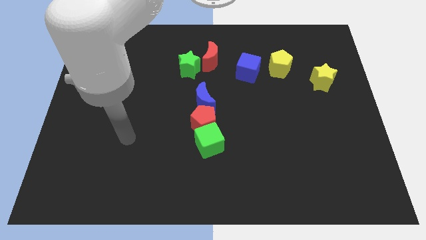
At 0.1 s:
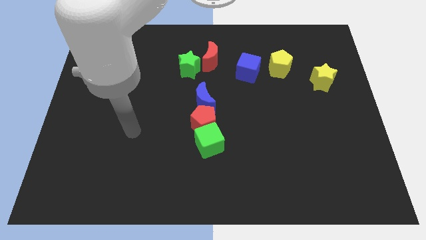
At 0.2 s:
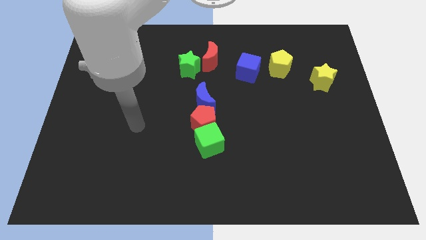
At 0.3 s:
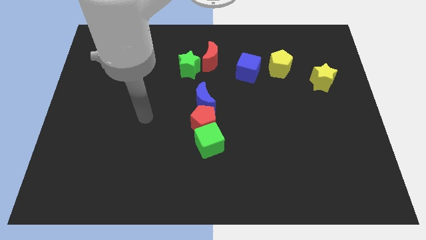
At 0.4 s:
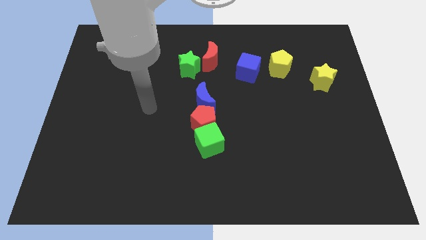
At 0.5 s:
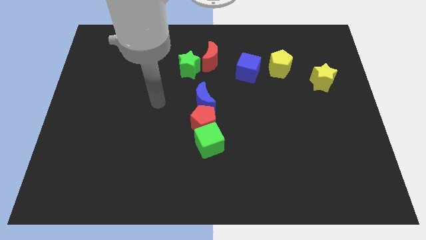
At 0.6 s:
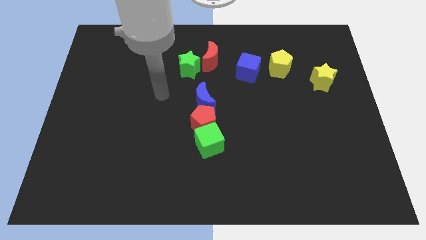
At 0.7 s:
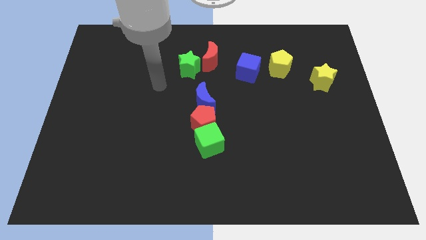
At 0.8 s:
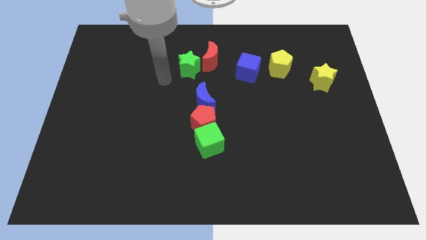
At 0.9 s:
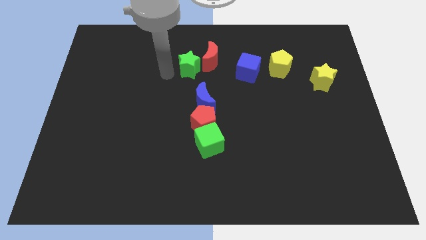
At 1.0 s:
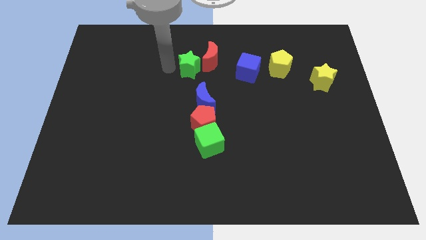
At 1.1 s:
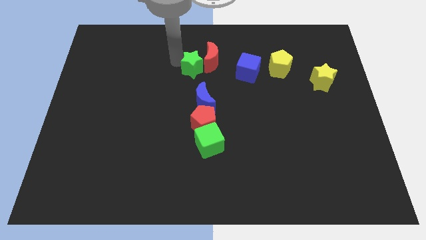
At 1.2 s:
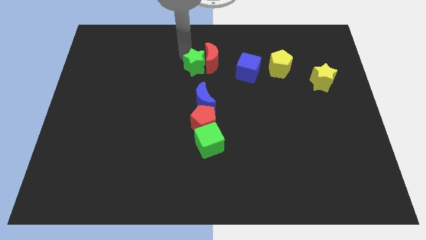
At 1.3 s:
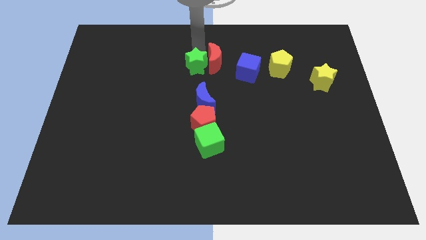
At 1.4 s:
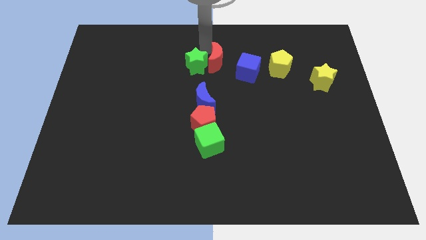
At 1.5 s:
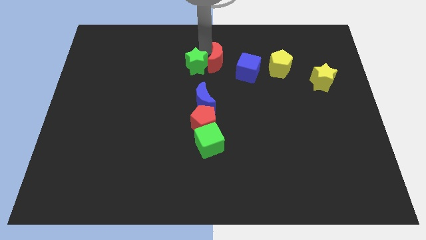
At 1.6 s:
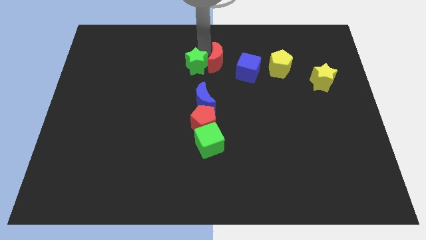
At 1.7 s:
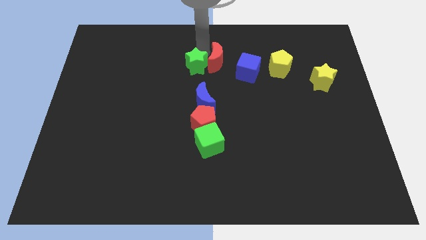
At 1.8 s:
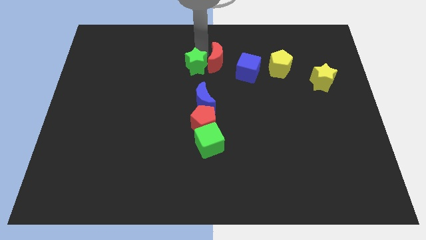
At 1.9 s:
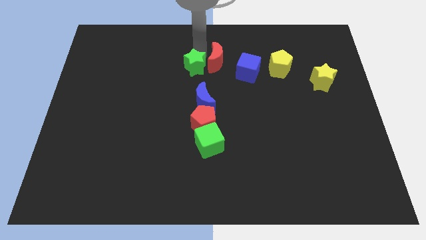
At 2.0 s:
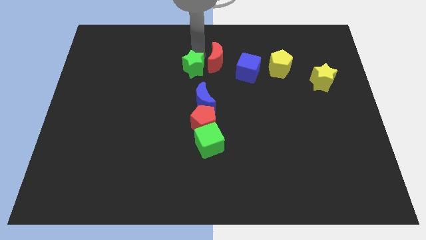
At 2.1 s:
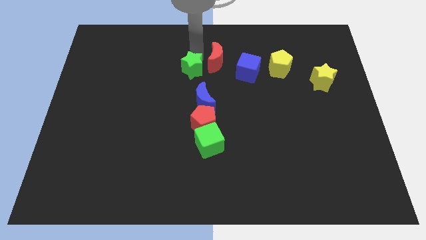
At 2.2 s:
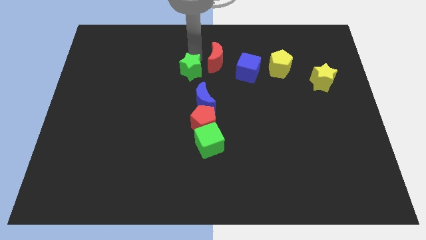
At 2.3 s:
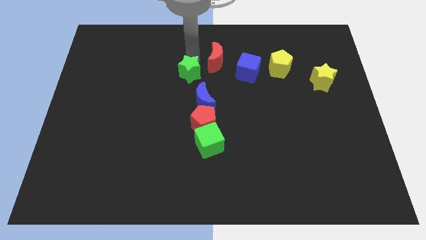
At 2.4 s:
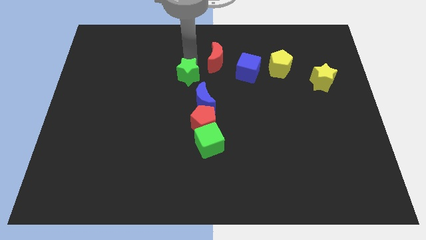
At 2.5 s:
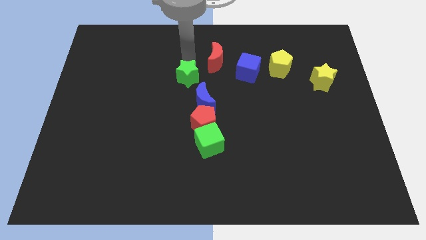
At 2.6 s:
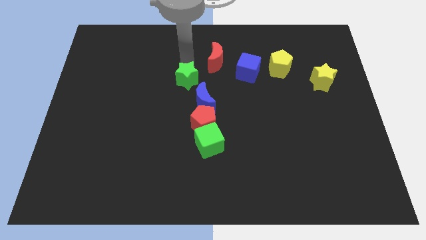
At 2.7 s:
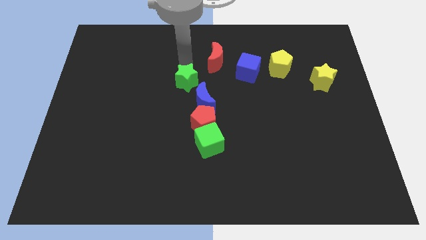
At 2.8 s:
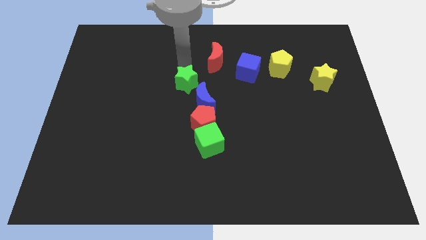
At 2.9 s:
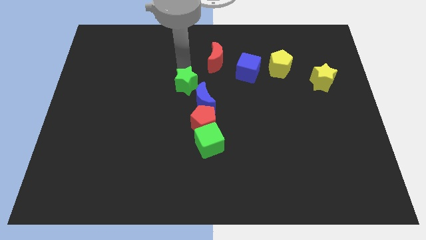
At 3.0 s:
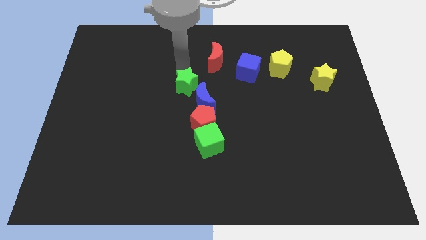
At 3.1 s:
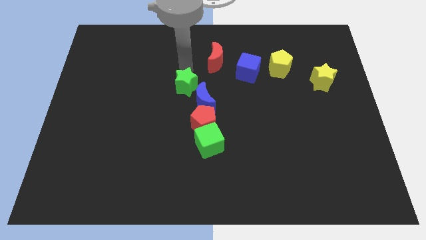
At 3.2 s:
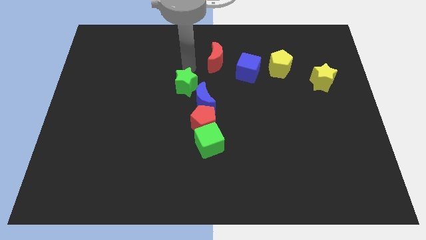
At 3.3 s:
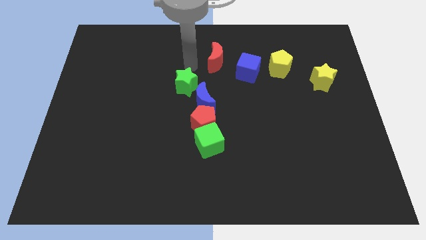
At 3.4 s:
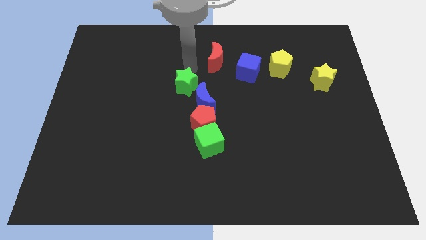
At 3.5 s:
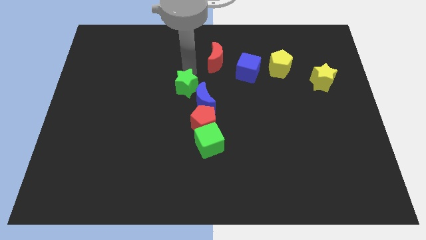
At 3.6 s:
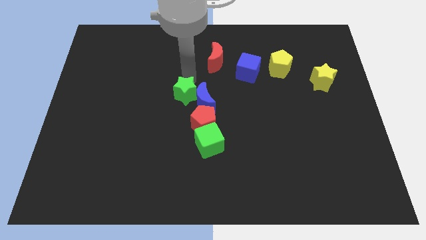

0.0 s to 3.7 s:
move the green star downwards a bit

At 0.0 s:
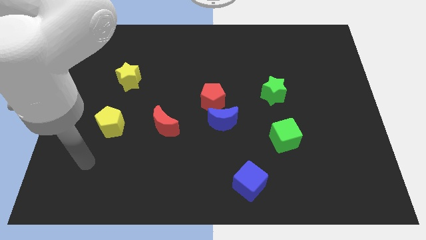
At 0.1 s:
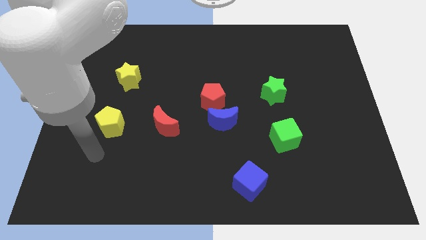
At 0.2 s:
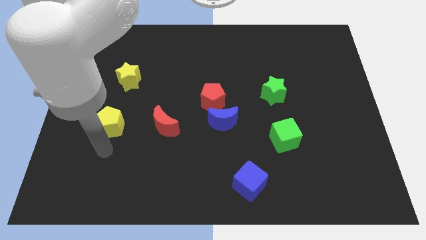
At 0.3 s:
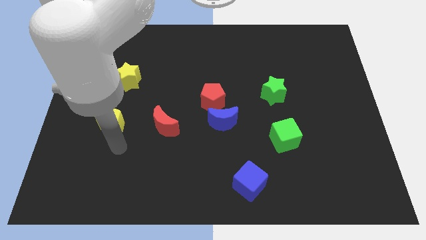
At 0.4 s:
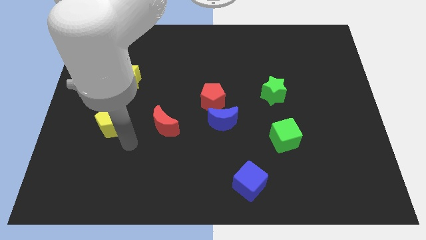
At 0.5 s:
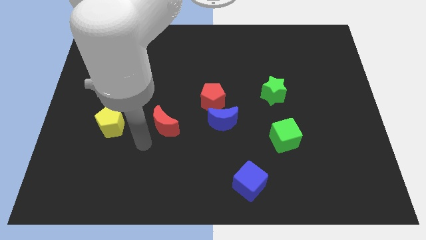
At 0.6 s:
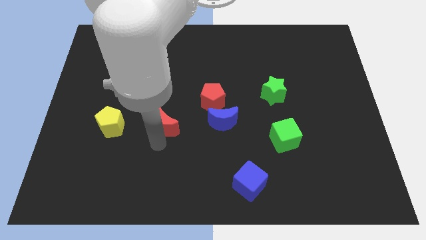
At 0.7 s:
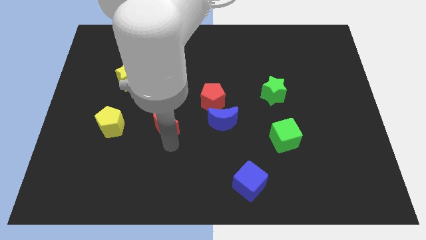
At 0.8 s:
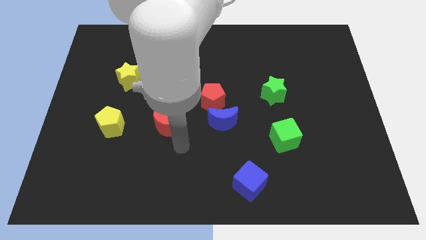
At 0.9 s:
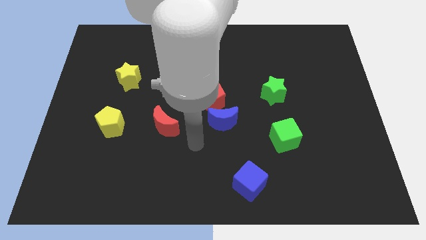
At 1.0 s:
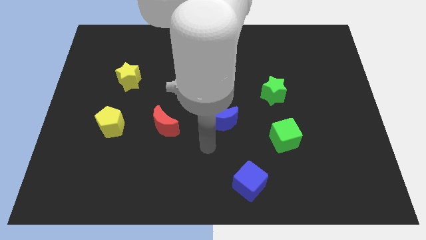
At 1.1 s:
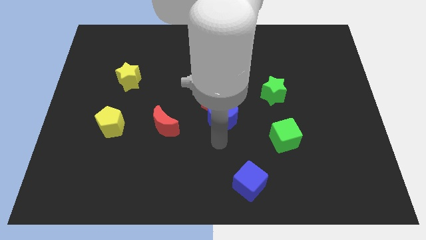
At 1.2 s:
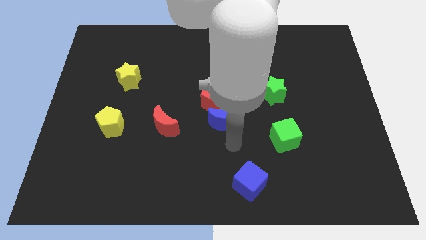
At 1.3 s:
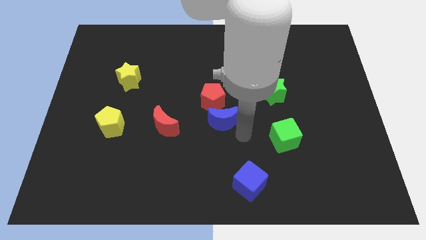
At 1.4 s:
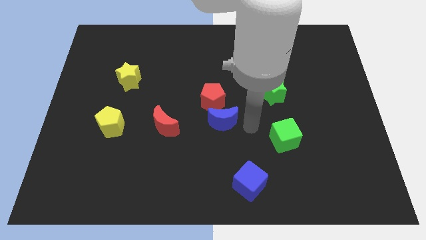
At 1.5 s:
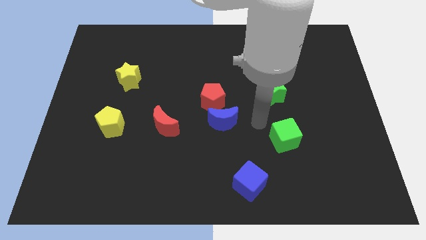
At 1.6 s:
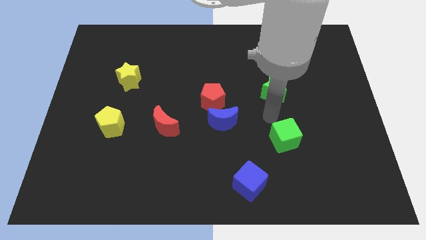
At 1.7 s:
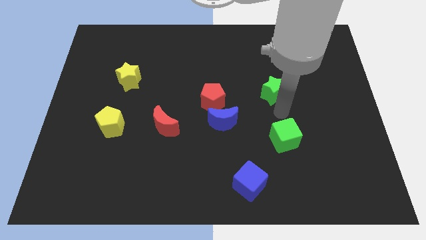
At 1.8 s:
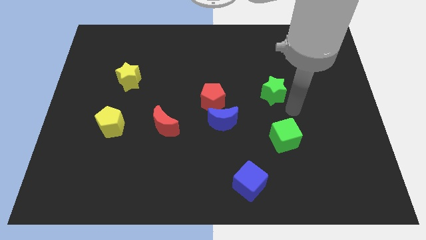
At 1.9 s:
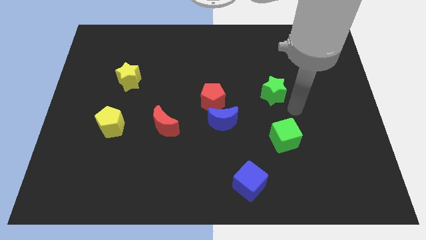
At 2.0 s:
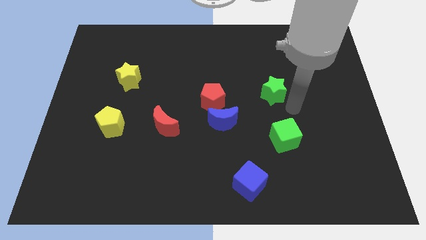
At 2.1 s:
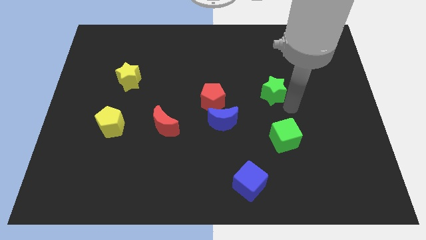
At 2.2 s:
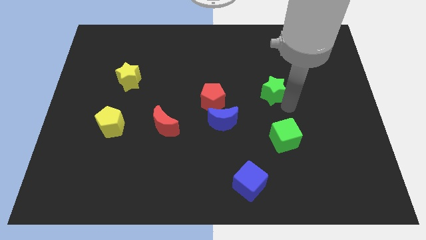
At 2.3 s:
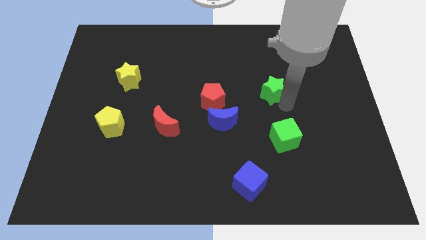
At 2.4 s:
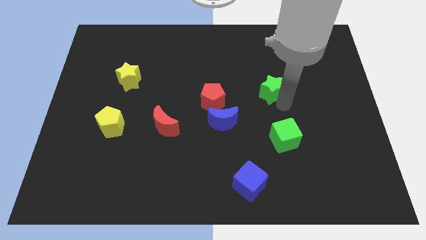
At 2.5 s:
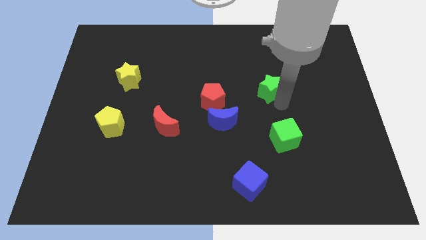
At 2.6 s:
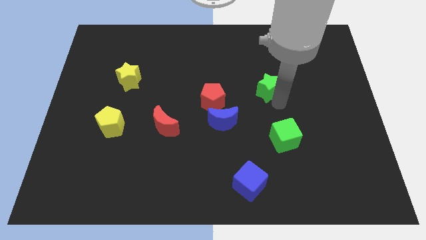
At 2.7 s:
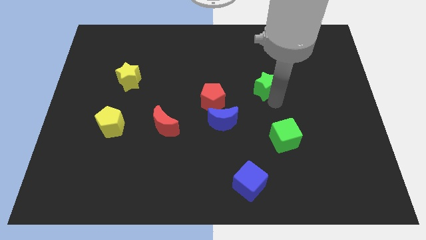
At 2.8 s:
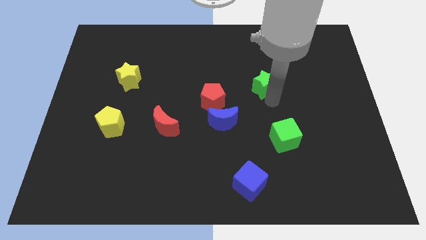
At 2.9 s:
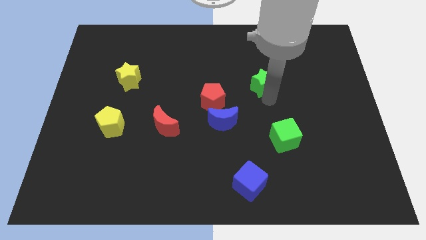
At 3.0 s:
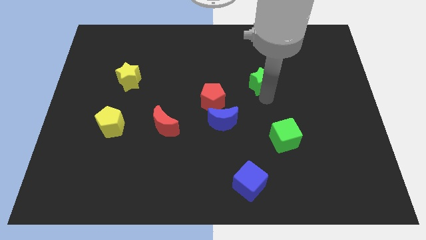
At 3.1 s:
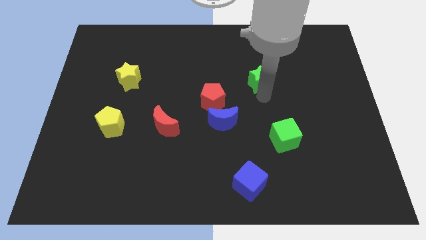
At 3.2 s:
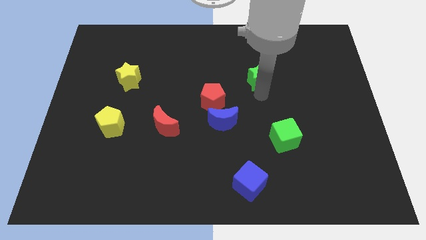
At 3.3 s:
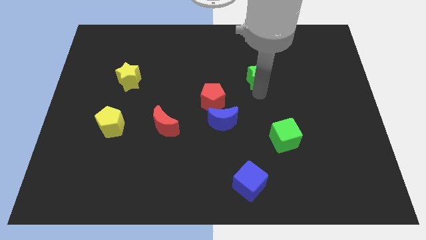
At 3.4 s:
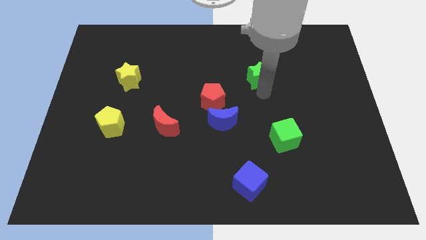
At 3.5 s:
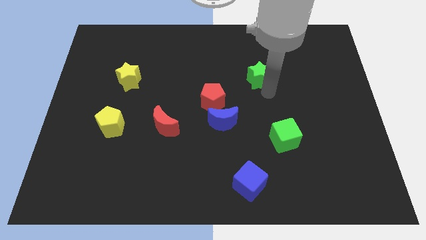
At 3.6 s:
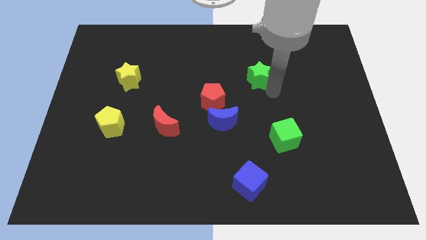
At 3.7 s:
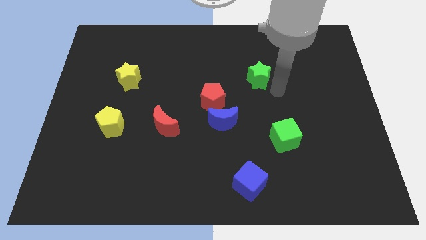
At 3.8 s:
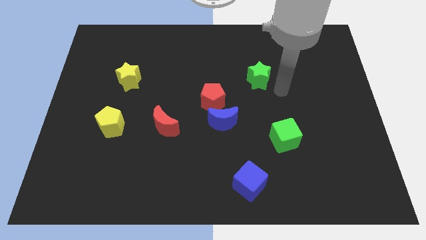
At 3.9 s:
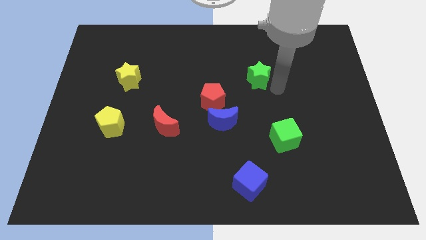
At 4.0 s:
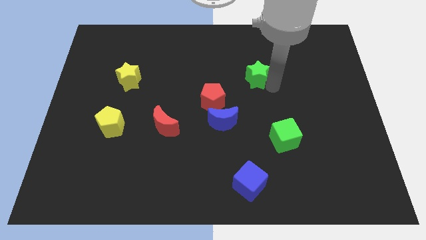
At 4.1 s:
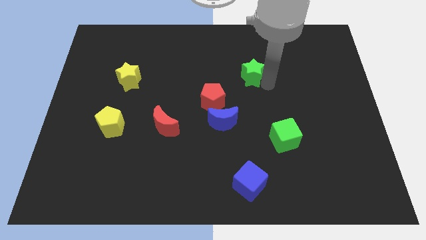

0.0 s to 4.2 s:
slightly move the green star up and to the left diagonally

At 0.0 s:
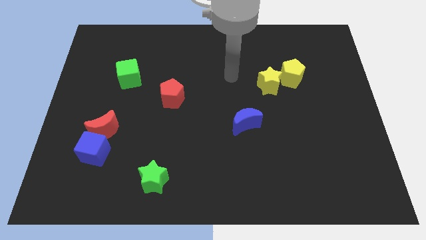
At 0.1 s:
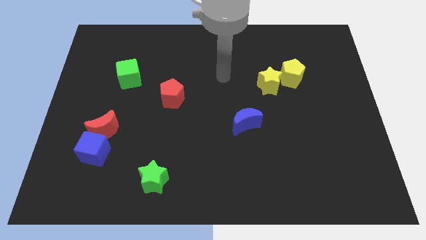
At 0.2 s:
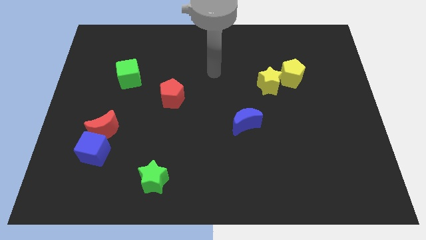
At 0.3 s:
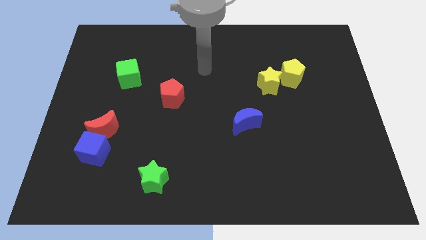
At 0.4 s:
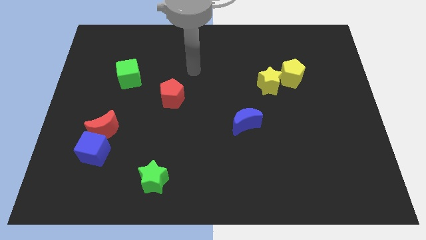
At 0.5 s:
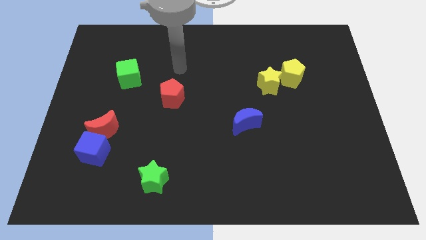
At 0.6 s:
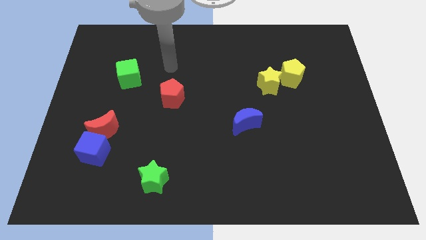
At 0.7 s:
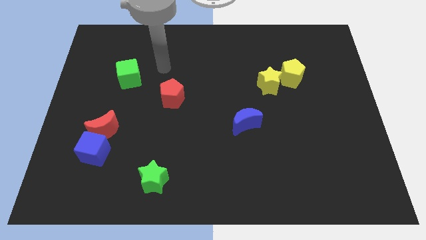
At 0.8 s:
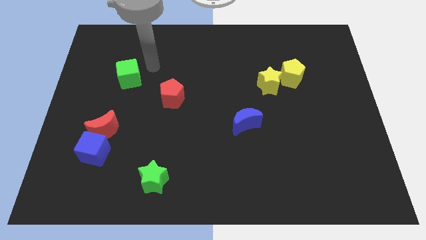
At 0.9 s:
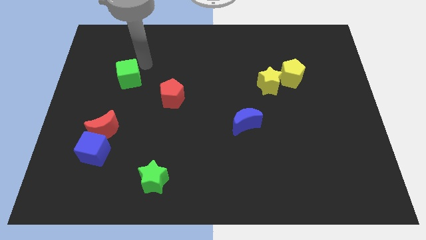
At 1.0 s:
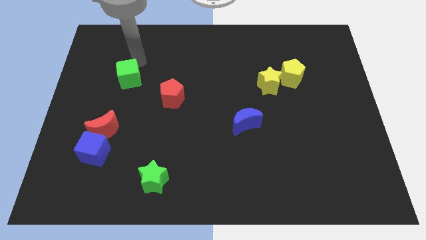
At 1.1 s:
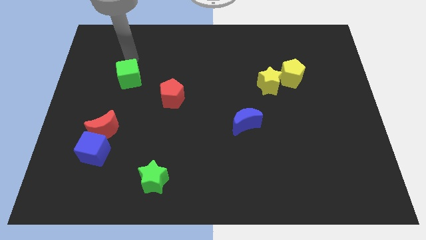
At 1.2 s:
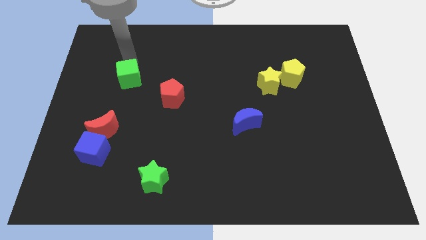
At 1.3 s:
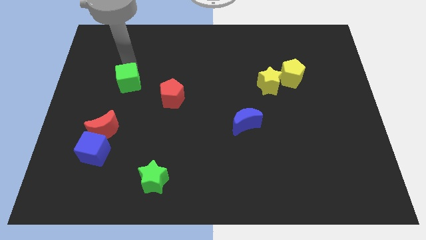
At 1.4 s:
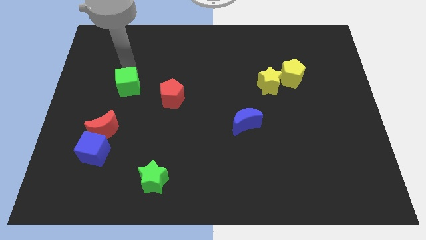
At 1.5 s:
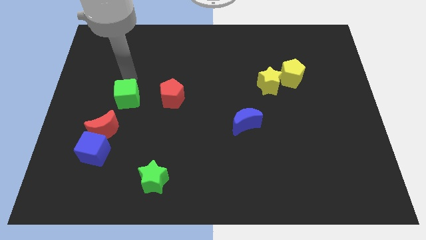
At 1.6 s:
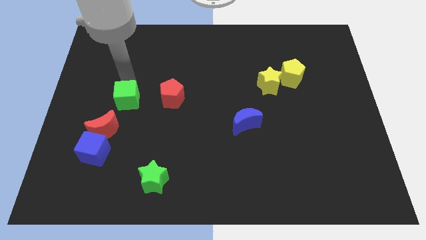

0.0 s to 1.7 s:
move the green cube downwards slightly
